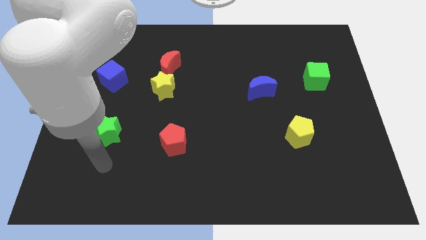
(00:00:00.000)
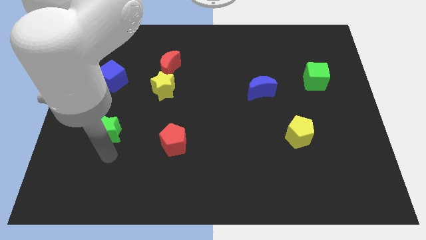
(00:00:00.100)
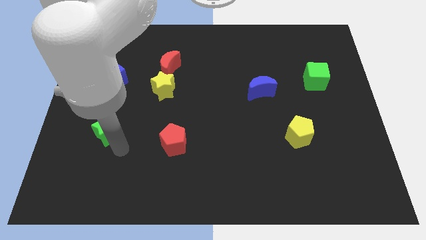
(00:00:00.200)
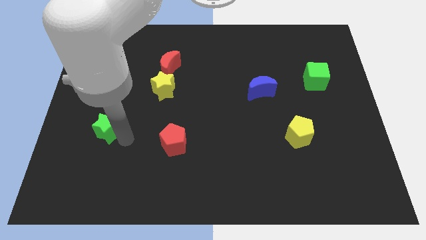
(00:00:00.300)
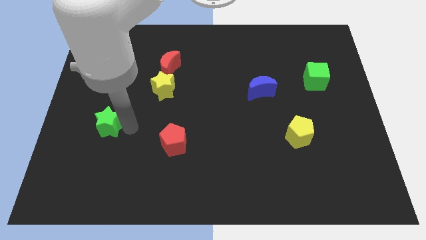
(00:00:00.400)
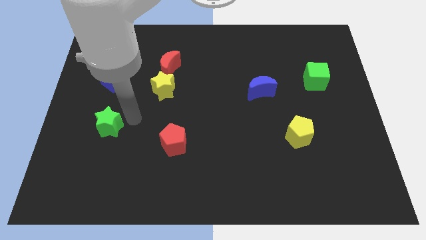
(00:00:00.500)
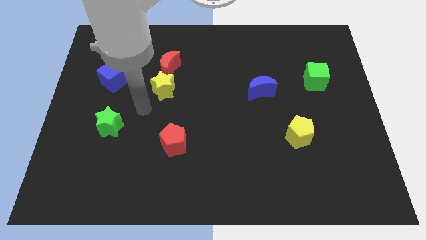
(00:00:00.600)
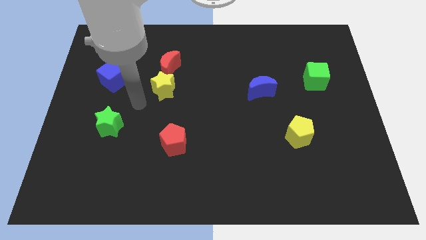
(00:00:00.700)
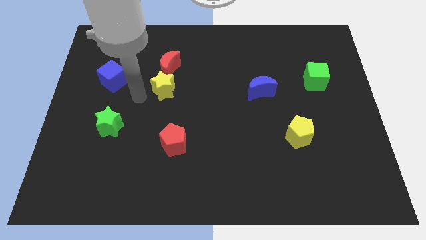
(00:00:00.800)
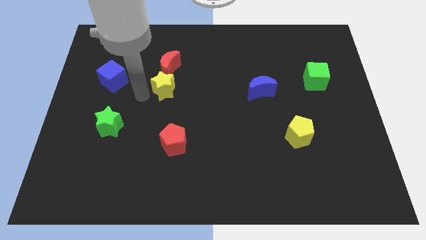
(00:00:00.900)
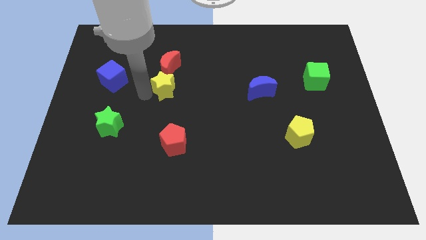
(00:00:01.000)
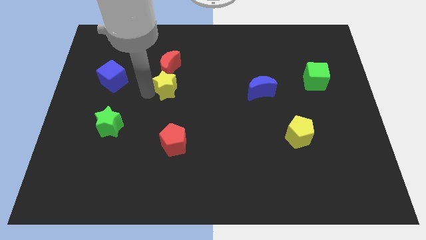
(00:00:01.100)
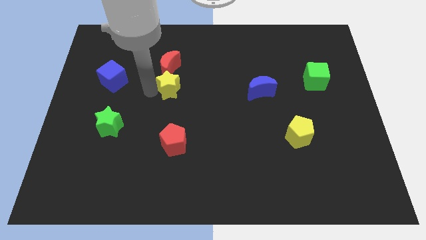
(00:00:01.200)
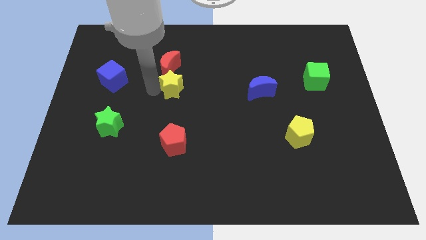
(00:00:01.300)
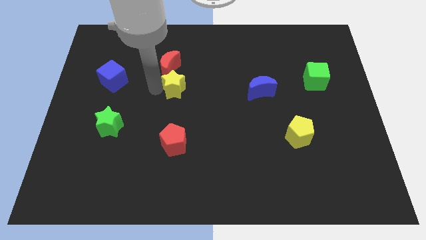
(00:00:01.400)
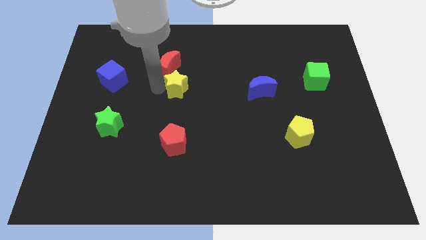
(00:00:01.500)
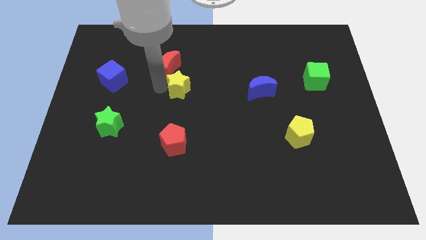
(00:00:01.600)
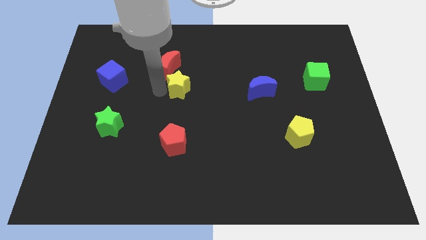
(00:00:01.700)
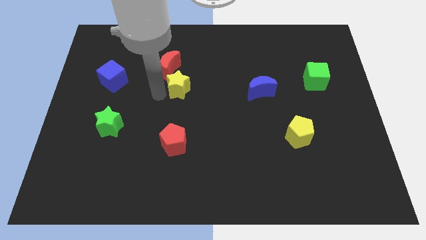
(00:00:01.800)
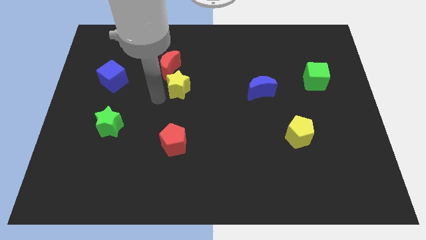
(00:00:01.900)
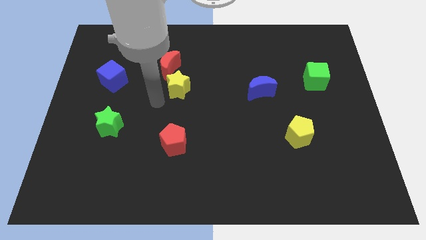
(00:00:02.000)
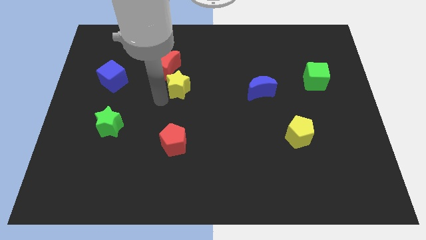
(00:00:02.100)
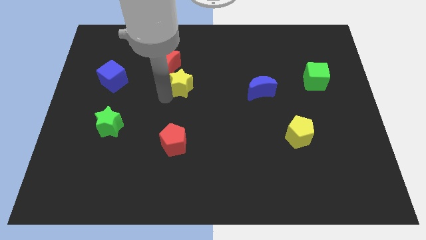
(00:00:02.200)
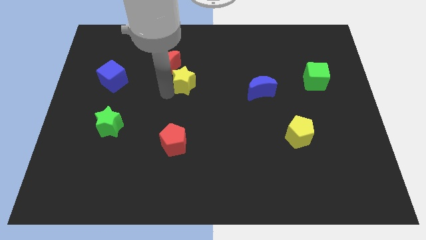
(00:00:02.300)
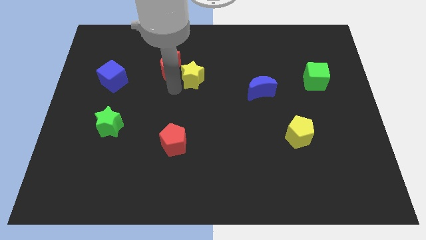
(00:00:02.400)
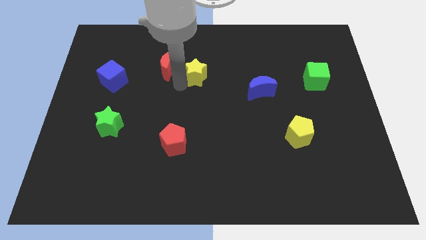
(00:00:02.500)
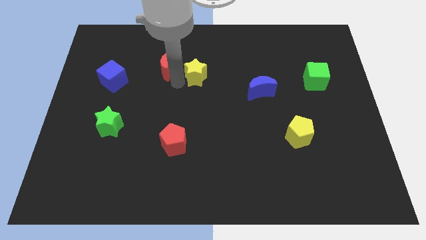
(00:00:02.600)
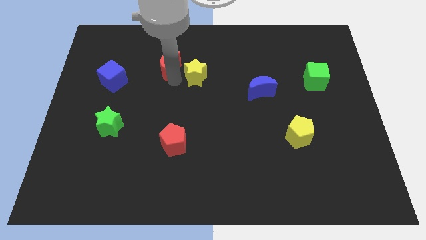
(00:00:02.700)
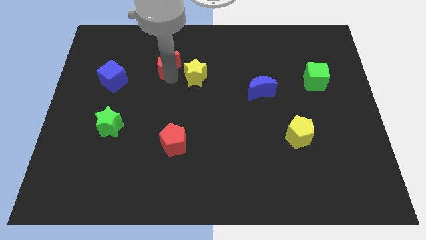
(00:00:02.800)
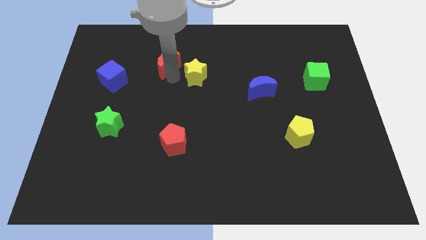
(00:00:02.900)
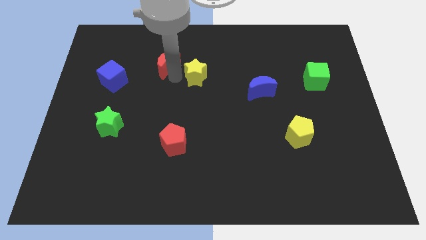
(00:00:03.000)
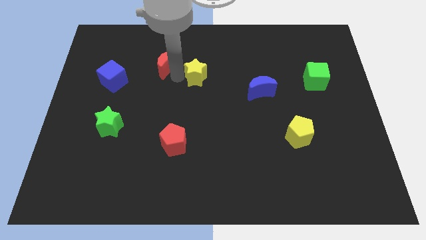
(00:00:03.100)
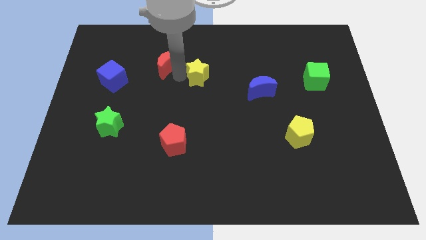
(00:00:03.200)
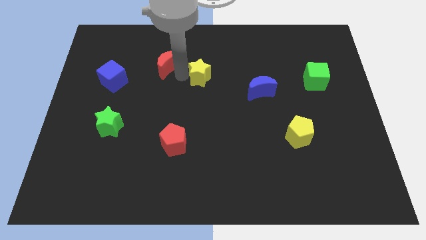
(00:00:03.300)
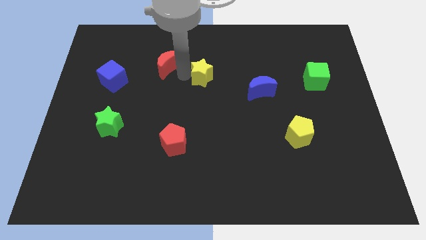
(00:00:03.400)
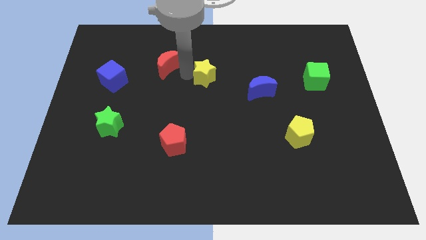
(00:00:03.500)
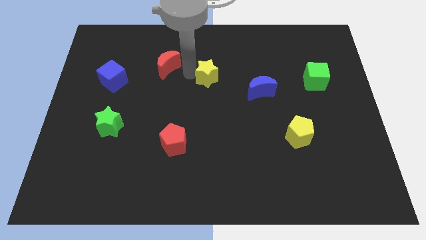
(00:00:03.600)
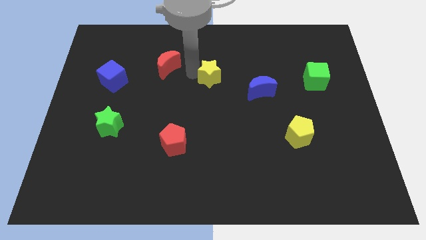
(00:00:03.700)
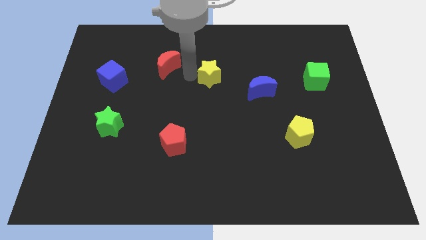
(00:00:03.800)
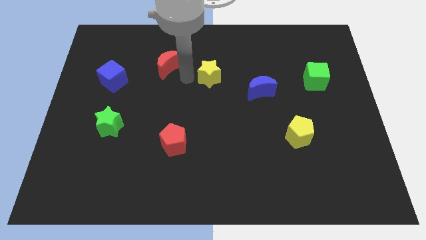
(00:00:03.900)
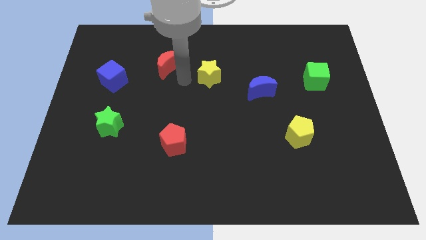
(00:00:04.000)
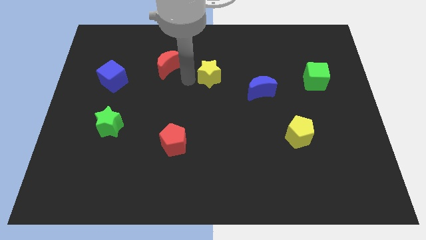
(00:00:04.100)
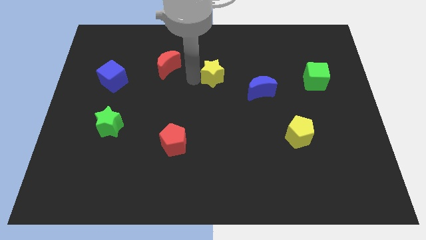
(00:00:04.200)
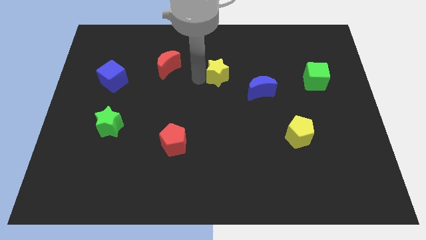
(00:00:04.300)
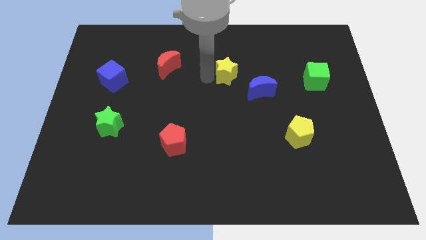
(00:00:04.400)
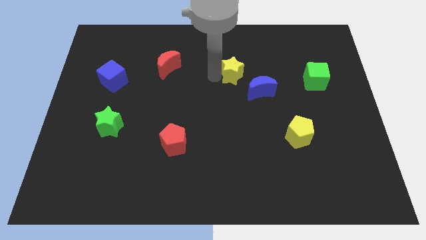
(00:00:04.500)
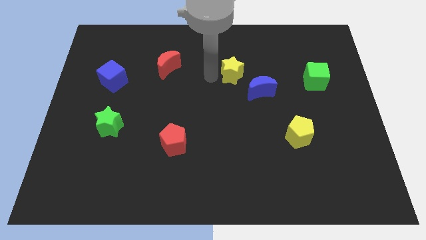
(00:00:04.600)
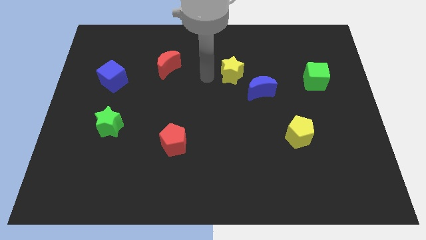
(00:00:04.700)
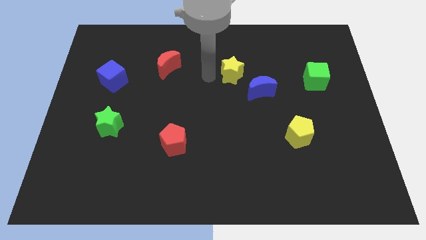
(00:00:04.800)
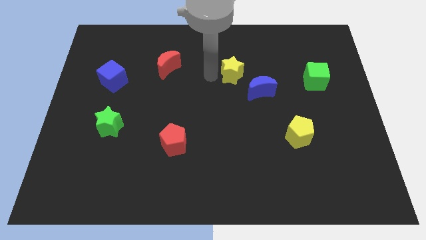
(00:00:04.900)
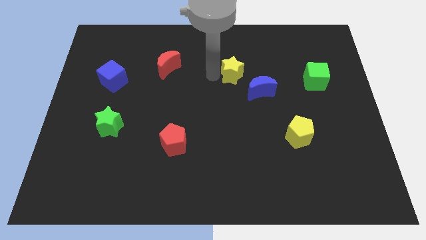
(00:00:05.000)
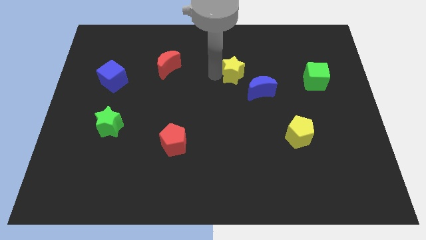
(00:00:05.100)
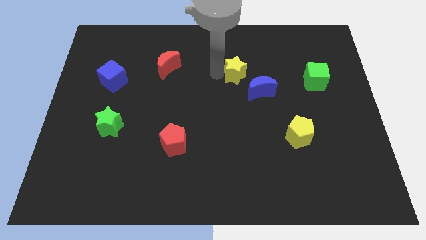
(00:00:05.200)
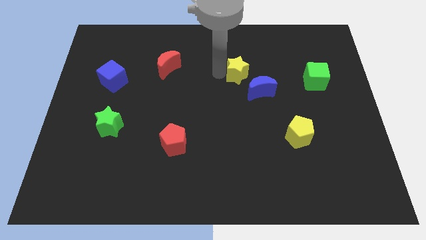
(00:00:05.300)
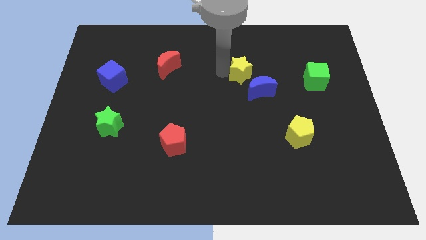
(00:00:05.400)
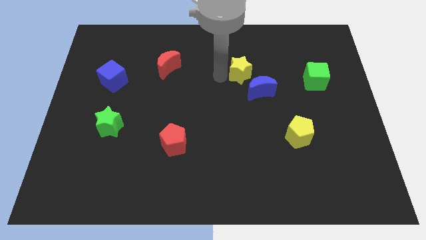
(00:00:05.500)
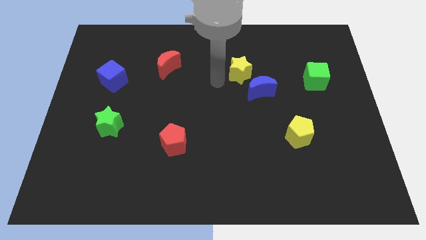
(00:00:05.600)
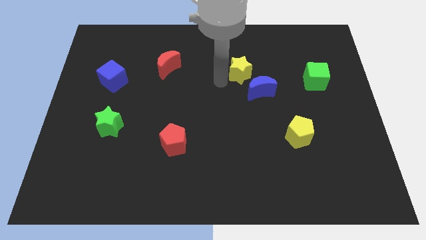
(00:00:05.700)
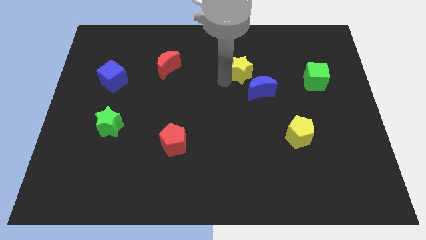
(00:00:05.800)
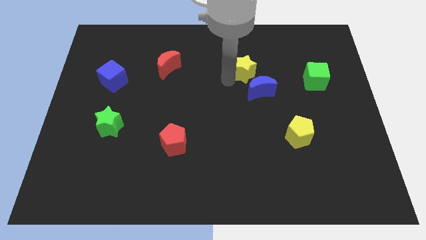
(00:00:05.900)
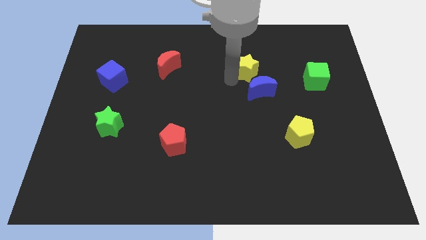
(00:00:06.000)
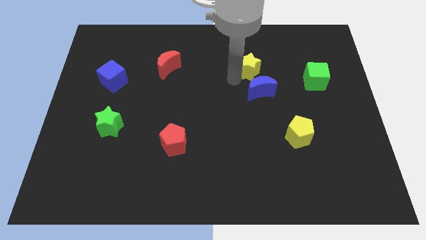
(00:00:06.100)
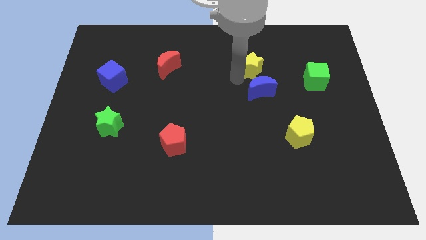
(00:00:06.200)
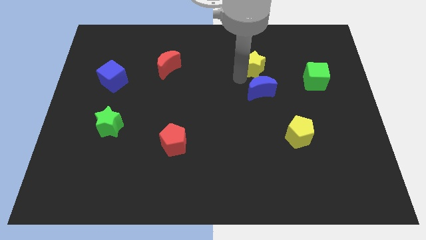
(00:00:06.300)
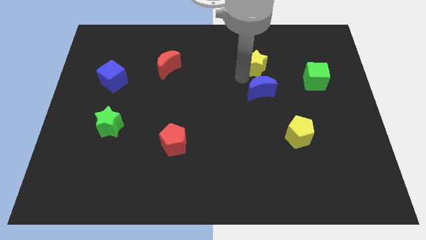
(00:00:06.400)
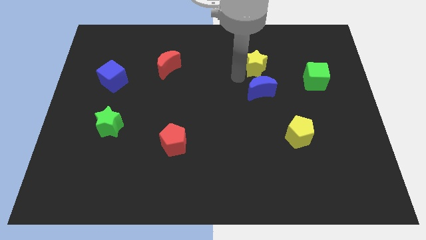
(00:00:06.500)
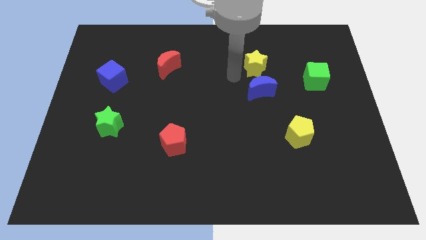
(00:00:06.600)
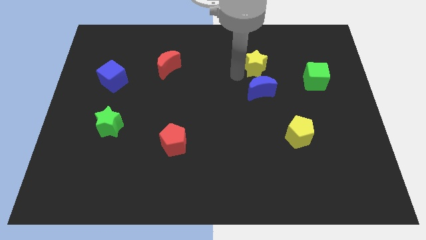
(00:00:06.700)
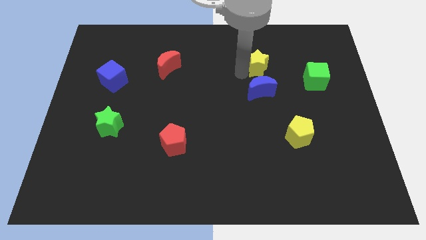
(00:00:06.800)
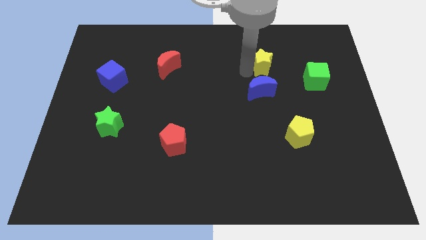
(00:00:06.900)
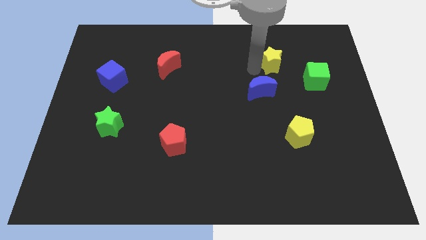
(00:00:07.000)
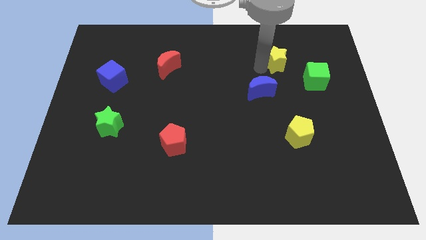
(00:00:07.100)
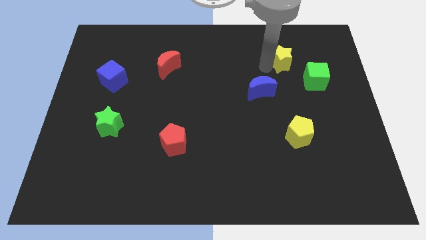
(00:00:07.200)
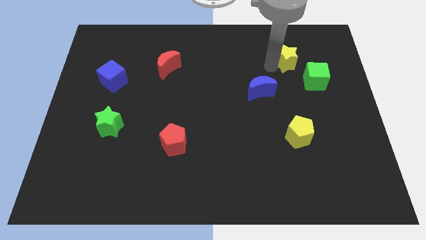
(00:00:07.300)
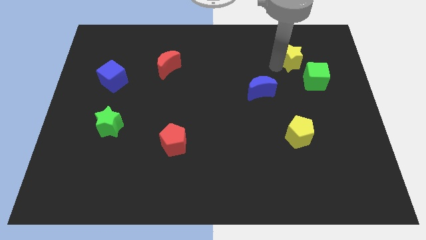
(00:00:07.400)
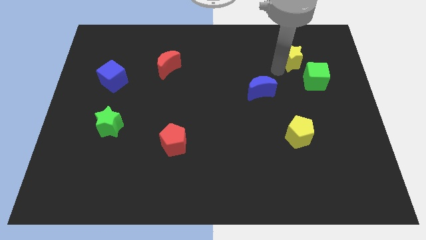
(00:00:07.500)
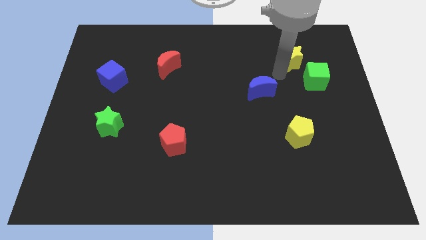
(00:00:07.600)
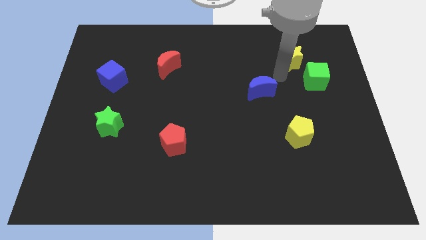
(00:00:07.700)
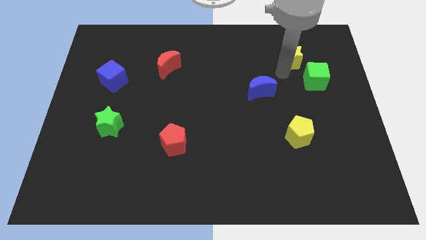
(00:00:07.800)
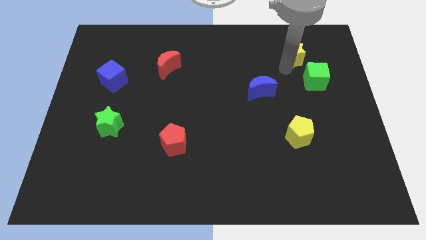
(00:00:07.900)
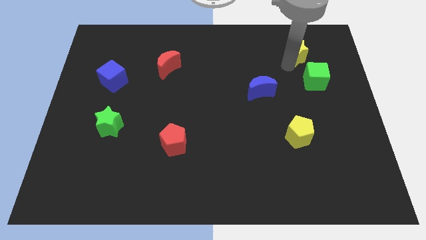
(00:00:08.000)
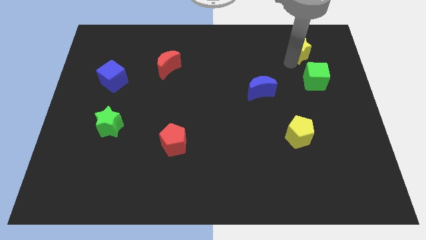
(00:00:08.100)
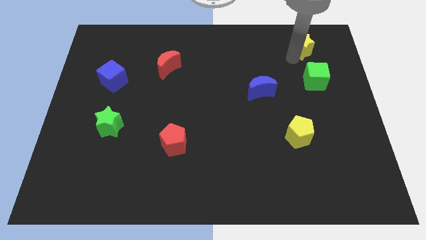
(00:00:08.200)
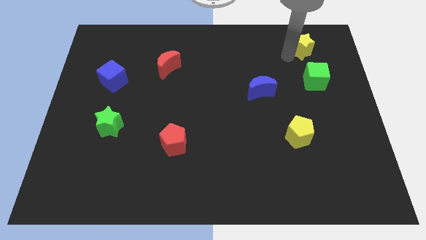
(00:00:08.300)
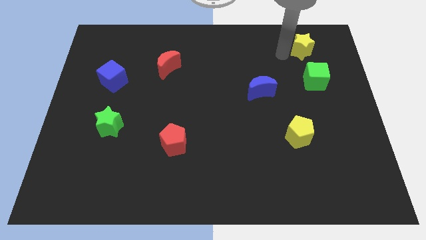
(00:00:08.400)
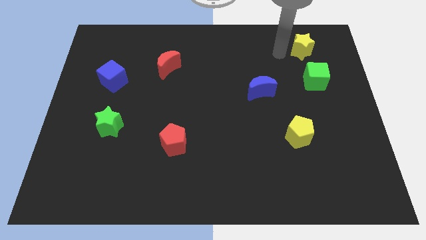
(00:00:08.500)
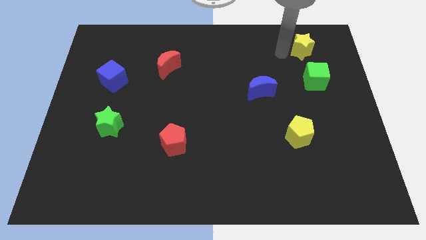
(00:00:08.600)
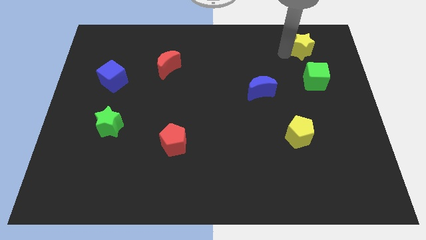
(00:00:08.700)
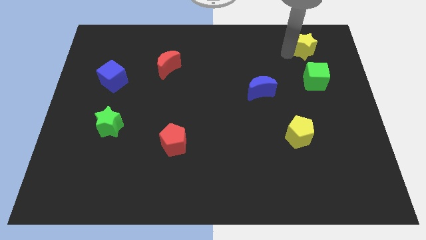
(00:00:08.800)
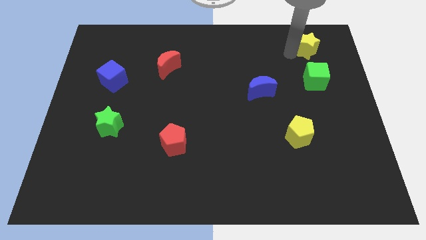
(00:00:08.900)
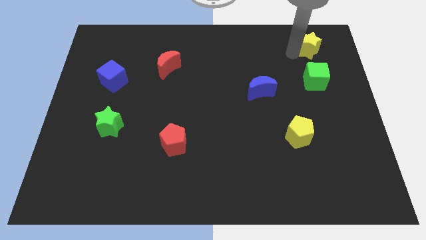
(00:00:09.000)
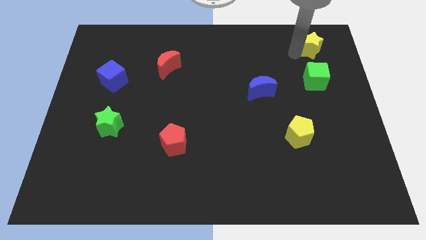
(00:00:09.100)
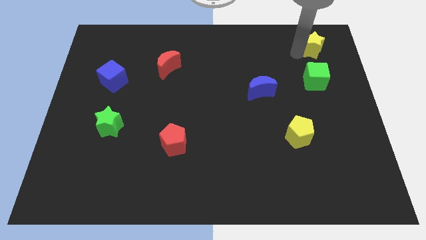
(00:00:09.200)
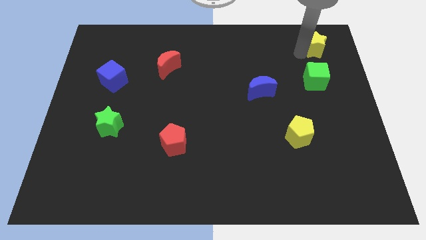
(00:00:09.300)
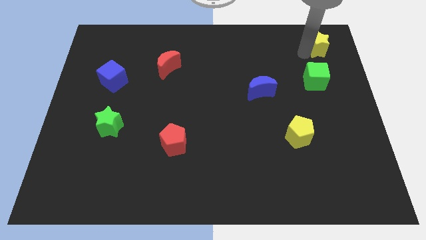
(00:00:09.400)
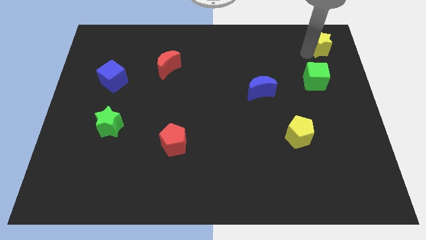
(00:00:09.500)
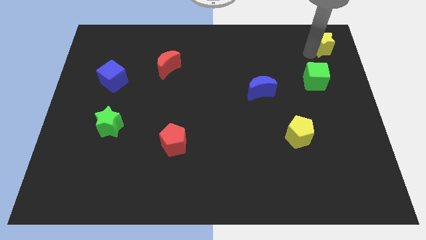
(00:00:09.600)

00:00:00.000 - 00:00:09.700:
move the yellow star to the top right of the board
